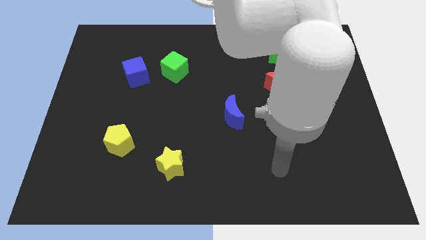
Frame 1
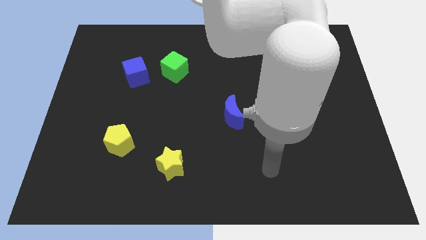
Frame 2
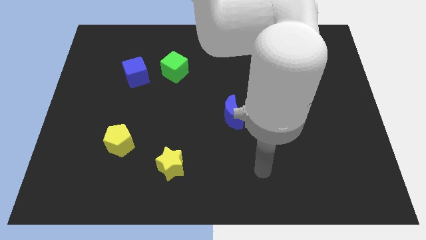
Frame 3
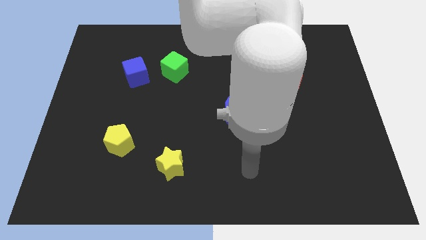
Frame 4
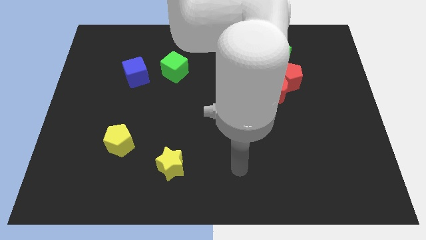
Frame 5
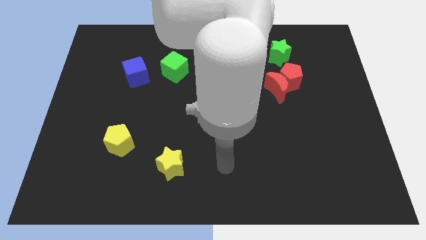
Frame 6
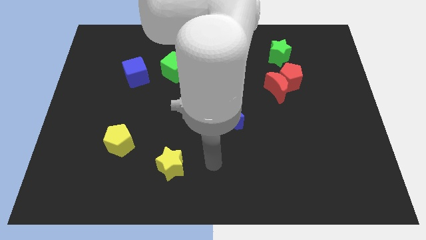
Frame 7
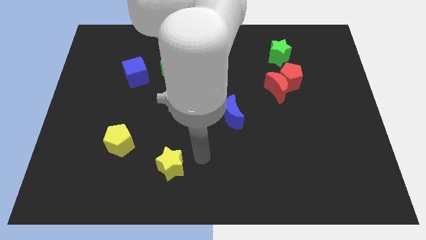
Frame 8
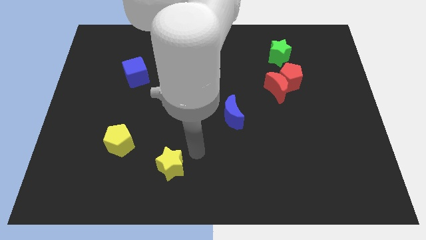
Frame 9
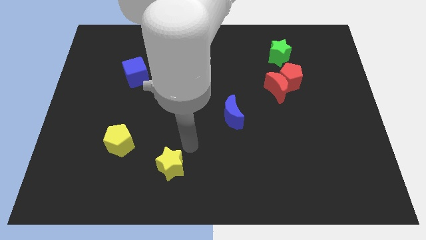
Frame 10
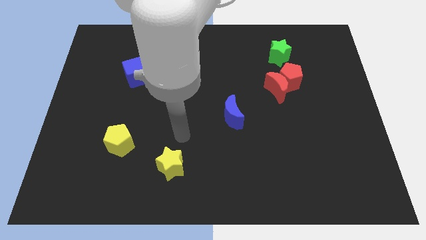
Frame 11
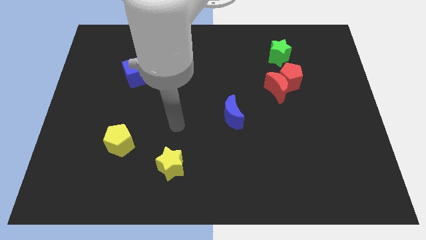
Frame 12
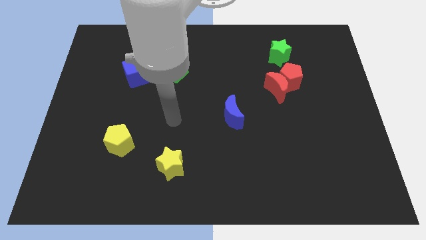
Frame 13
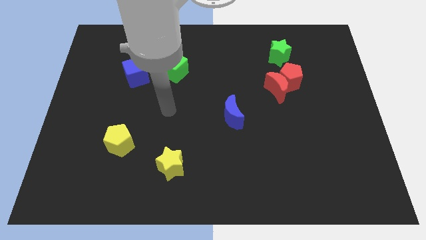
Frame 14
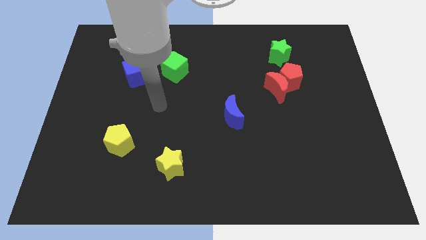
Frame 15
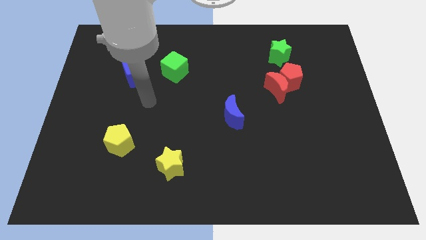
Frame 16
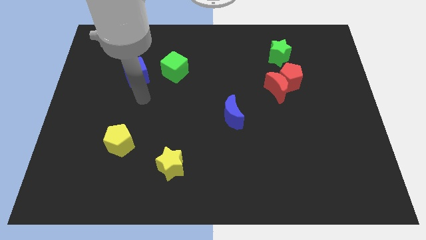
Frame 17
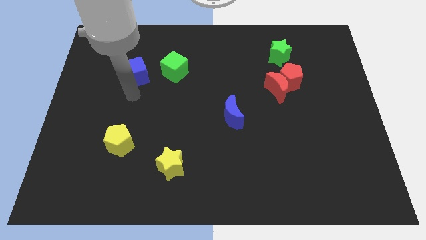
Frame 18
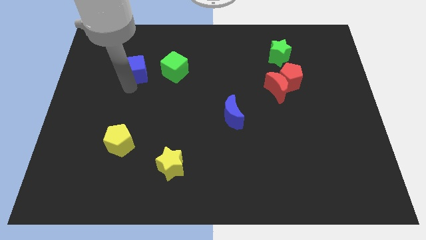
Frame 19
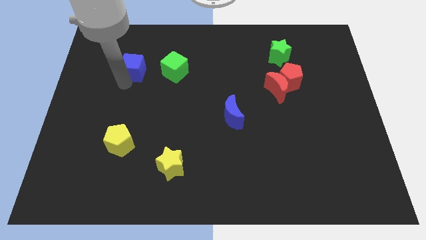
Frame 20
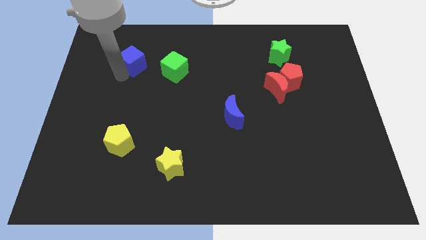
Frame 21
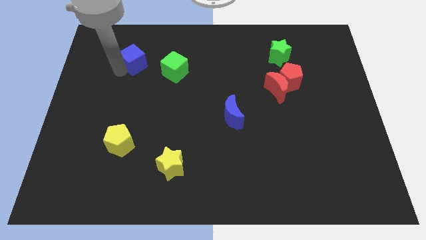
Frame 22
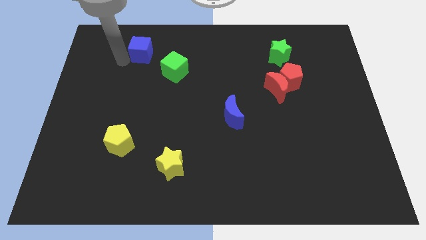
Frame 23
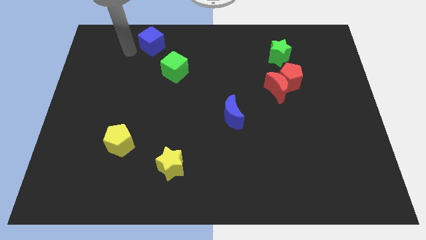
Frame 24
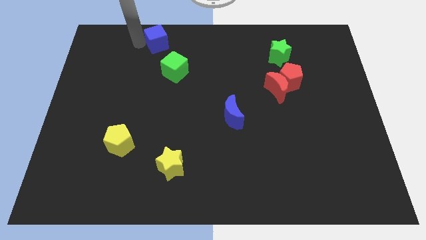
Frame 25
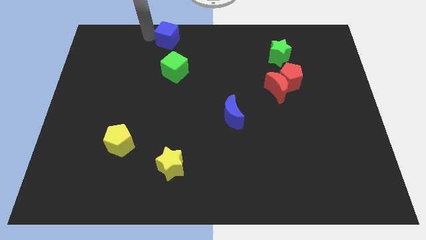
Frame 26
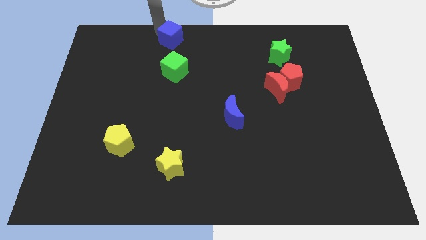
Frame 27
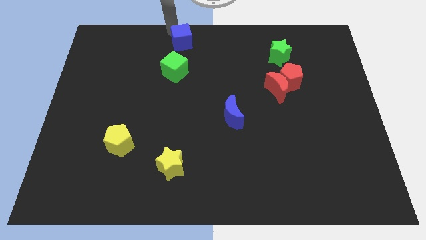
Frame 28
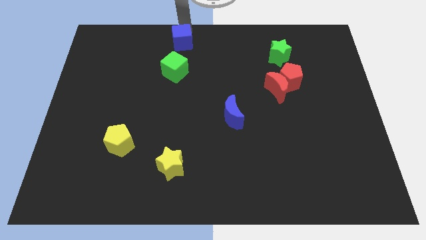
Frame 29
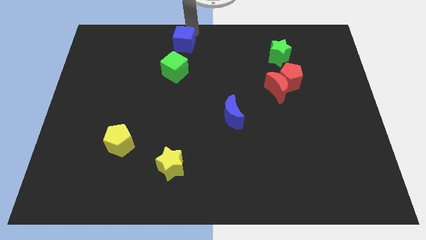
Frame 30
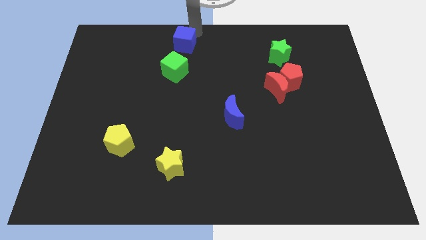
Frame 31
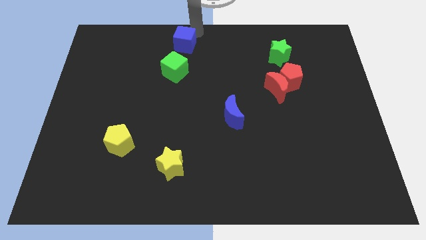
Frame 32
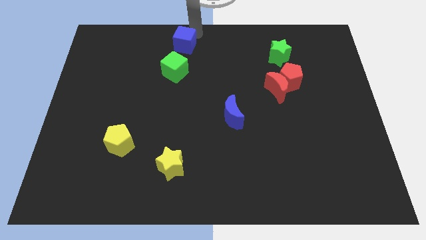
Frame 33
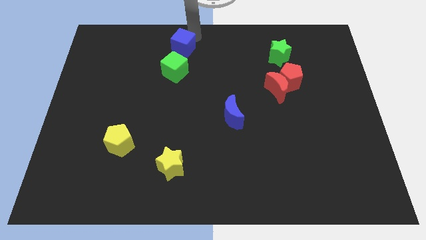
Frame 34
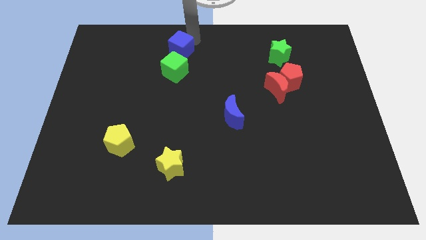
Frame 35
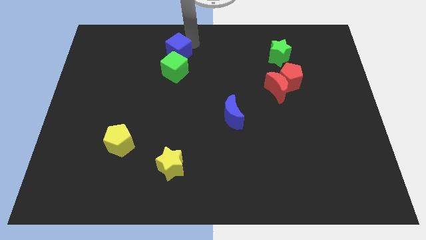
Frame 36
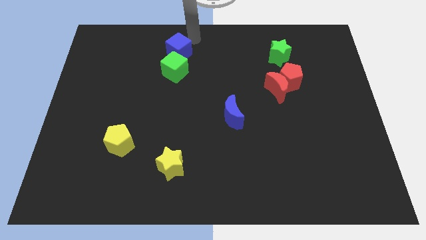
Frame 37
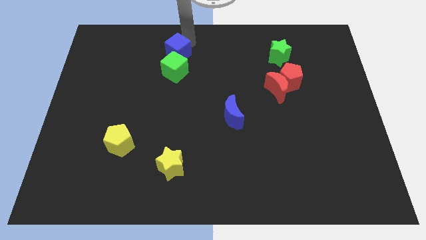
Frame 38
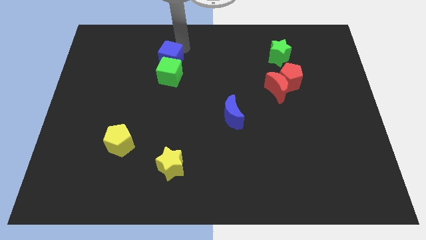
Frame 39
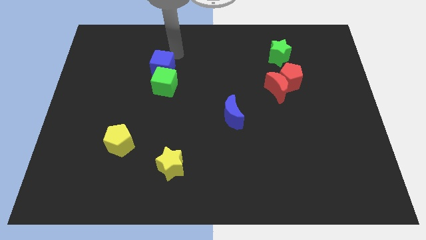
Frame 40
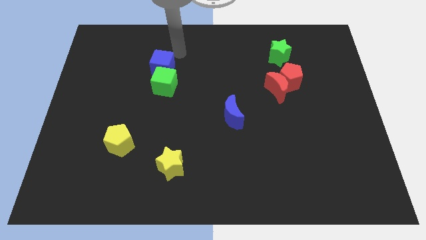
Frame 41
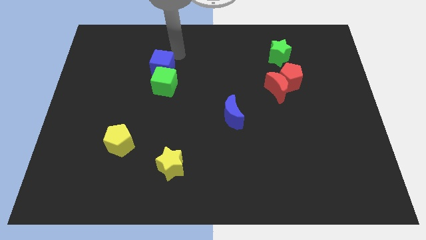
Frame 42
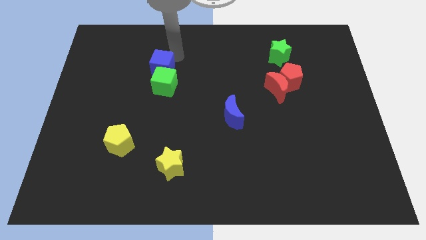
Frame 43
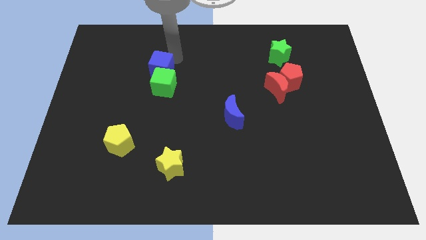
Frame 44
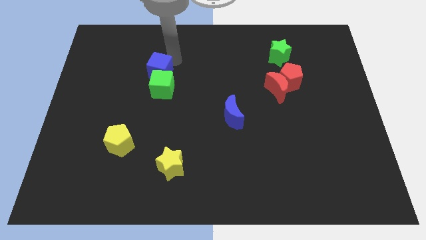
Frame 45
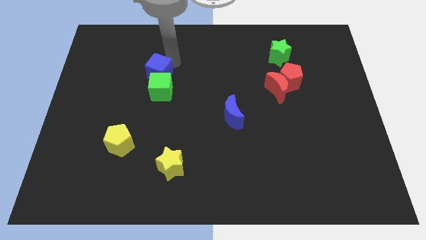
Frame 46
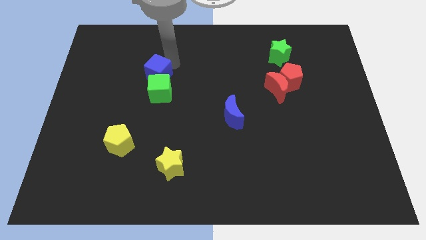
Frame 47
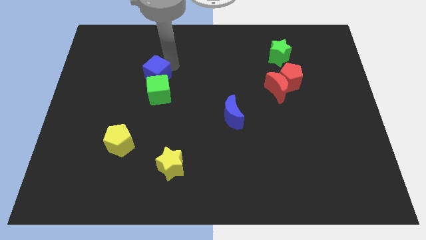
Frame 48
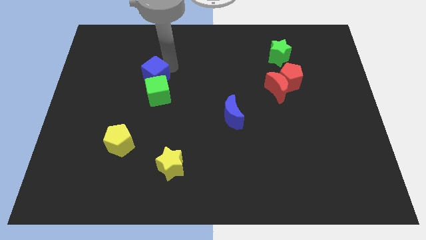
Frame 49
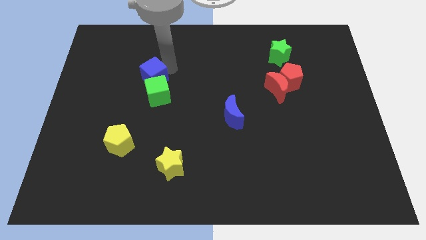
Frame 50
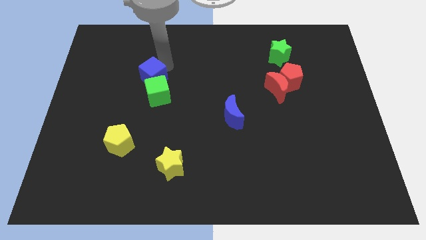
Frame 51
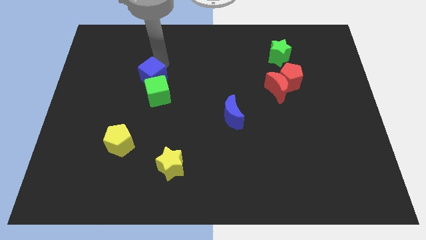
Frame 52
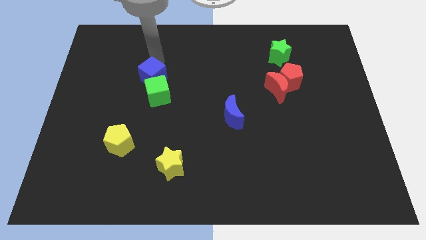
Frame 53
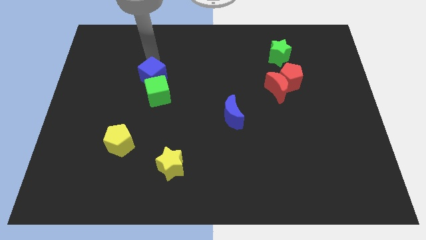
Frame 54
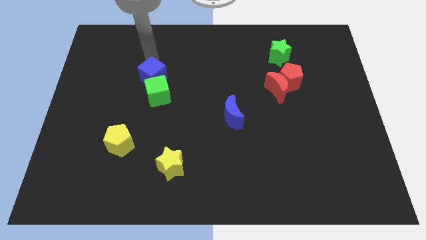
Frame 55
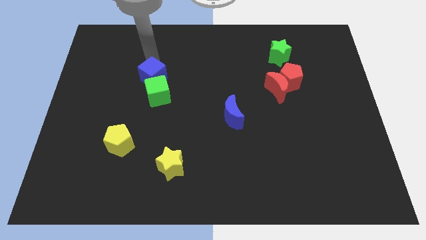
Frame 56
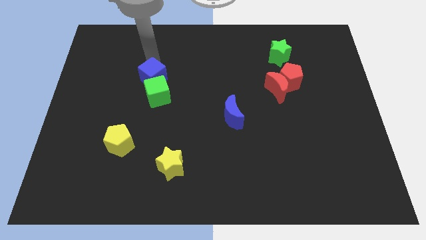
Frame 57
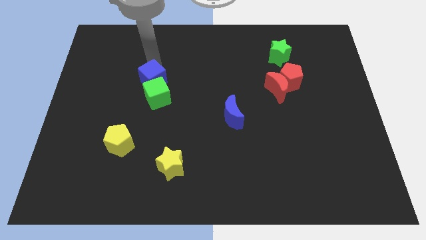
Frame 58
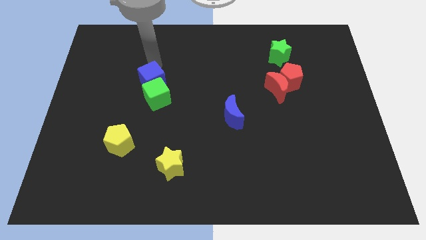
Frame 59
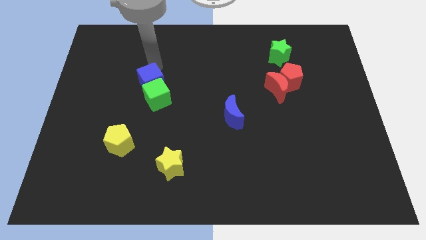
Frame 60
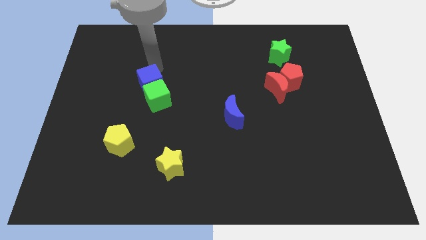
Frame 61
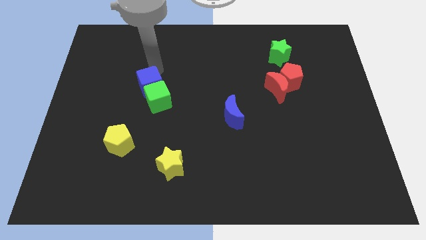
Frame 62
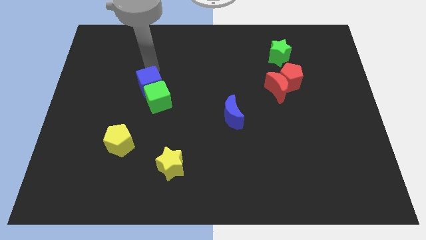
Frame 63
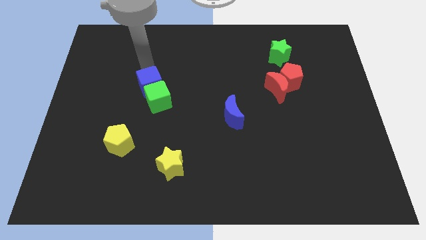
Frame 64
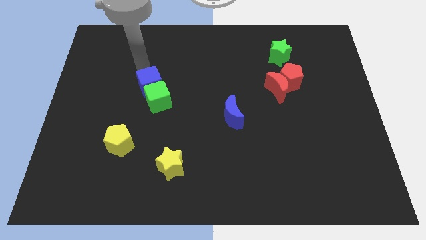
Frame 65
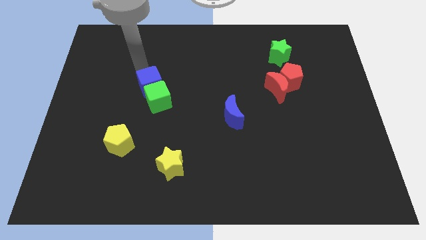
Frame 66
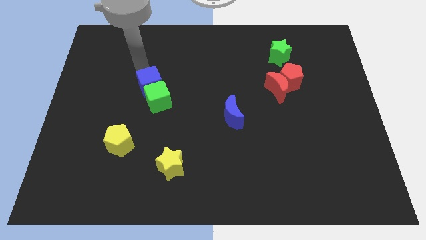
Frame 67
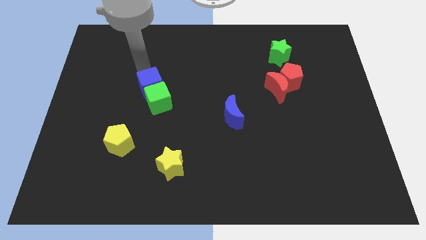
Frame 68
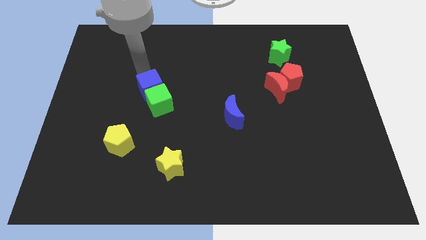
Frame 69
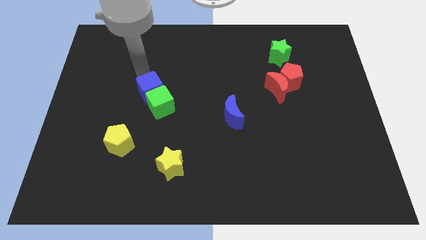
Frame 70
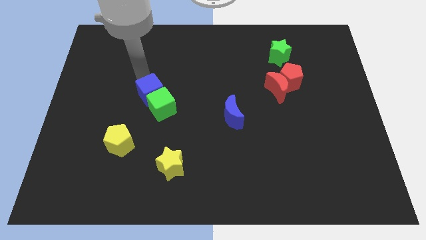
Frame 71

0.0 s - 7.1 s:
slide the blue cube downwards and right diagonally a little bit

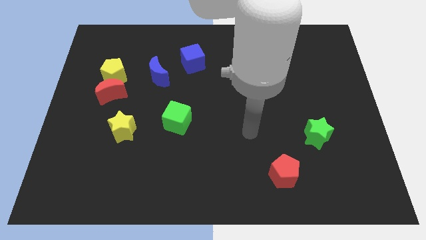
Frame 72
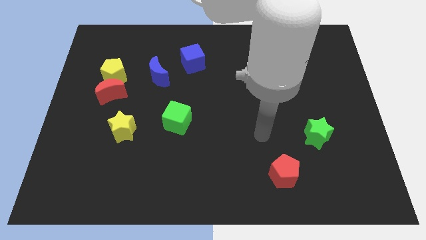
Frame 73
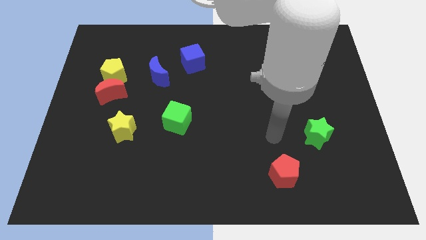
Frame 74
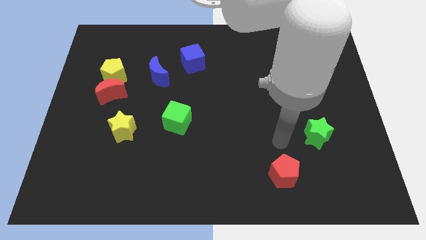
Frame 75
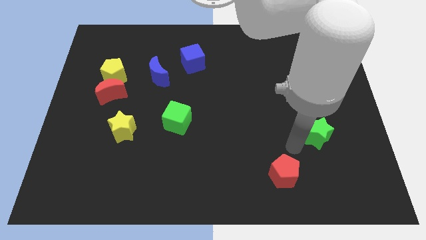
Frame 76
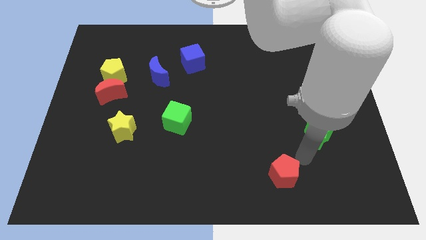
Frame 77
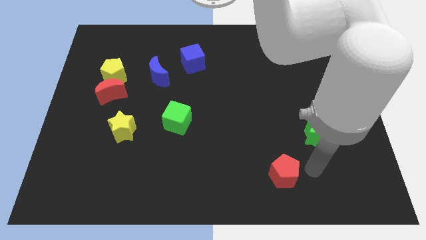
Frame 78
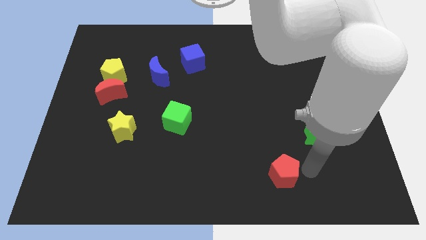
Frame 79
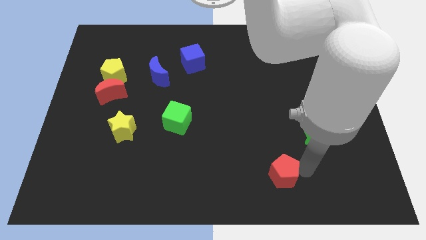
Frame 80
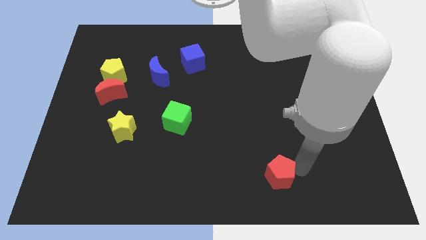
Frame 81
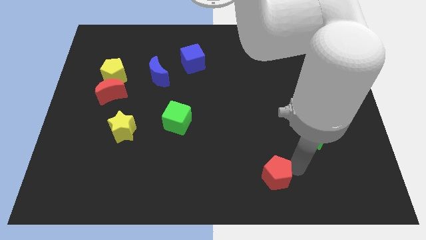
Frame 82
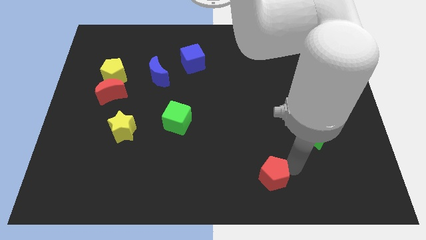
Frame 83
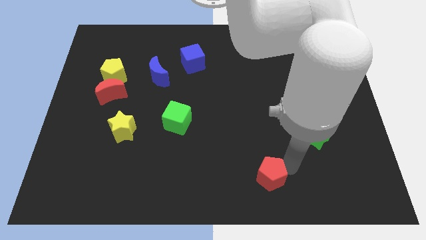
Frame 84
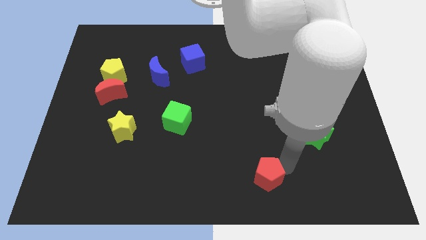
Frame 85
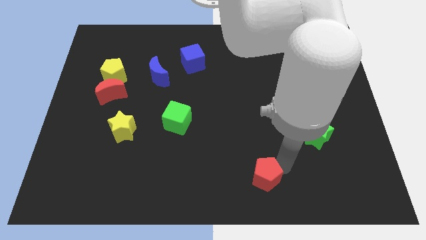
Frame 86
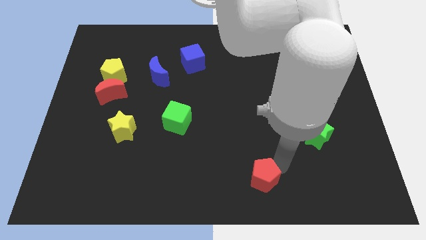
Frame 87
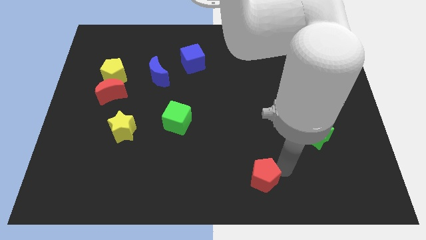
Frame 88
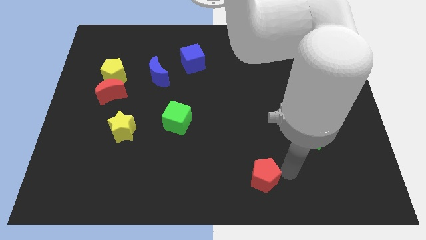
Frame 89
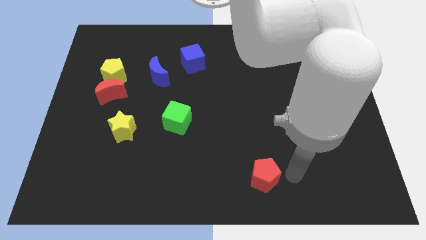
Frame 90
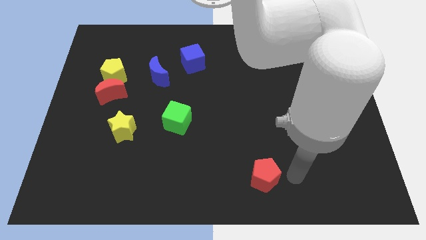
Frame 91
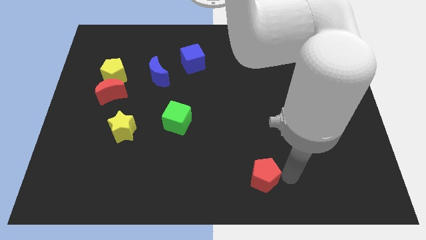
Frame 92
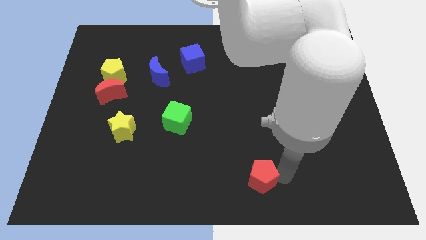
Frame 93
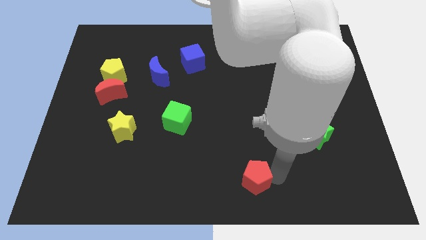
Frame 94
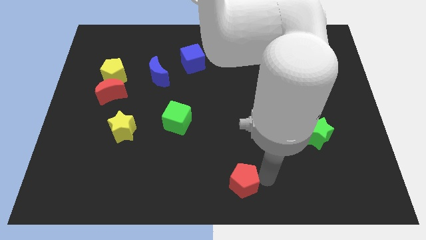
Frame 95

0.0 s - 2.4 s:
move the red pentagon a little bit to the left
